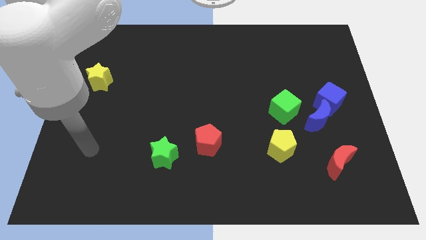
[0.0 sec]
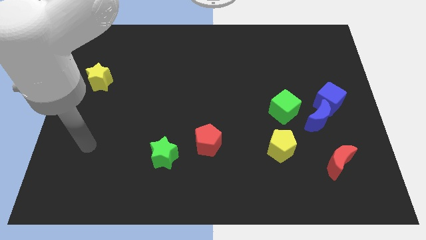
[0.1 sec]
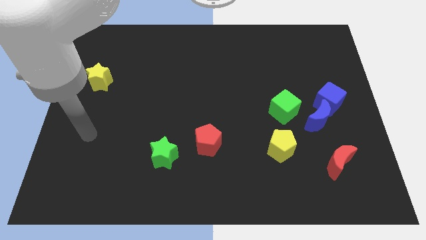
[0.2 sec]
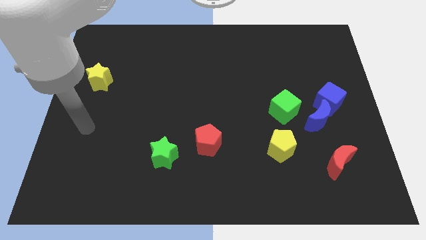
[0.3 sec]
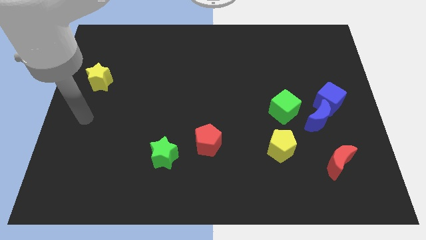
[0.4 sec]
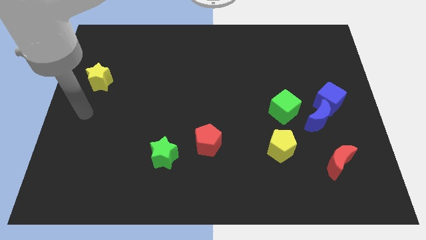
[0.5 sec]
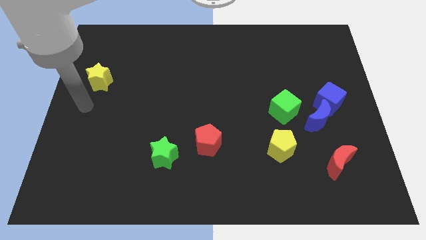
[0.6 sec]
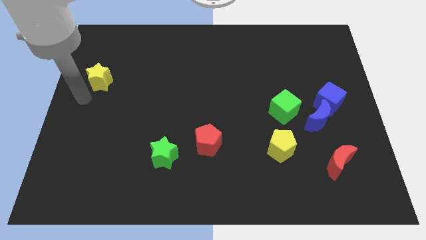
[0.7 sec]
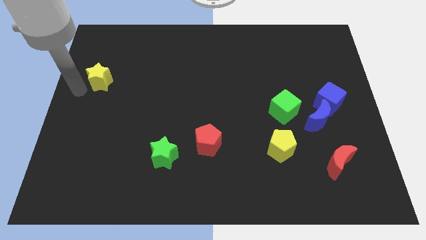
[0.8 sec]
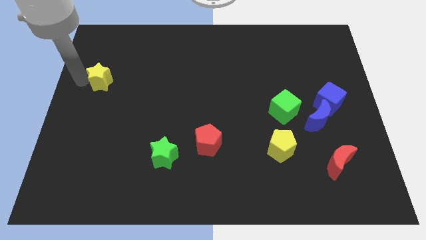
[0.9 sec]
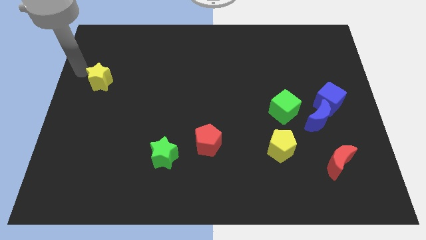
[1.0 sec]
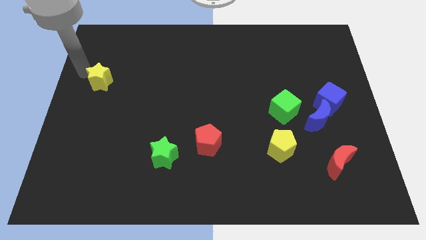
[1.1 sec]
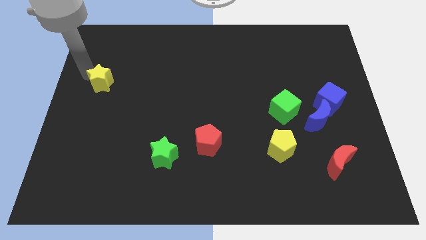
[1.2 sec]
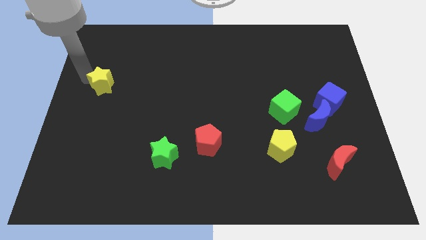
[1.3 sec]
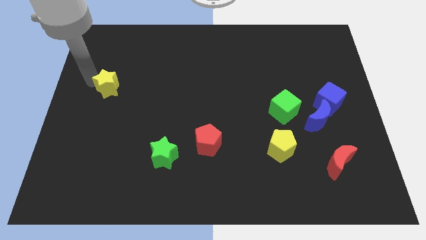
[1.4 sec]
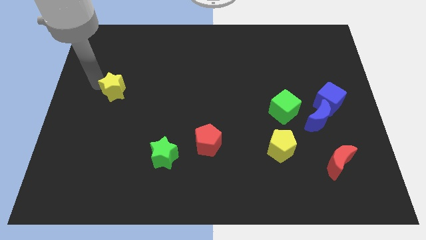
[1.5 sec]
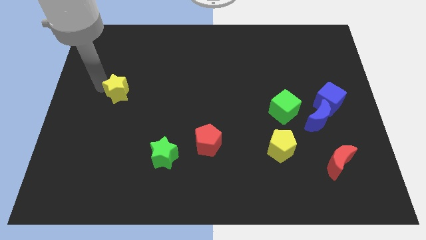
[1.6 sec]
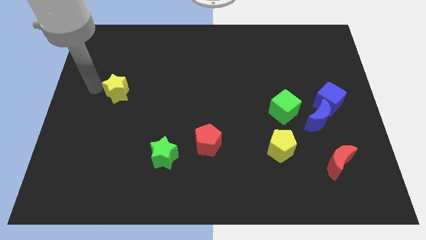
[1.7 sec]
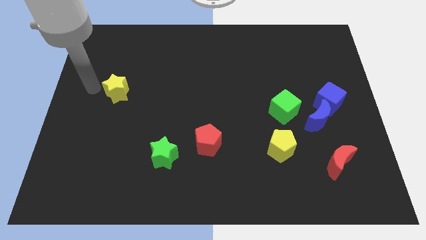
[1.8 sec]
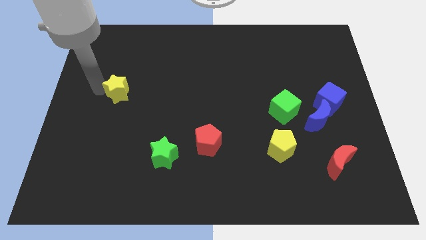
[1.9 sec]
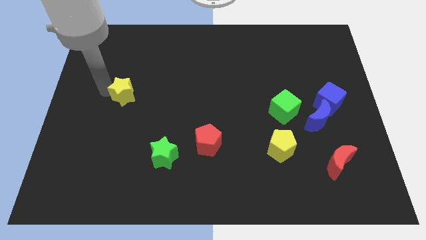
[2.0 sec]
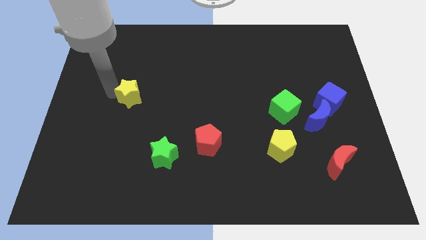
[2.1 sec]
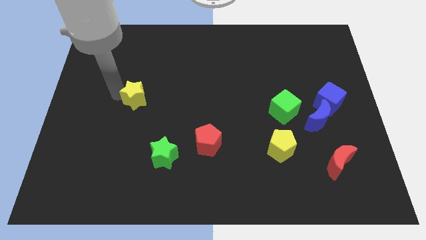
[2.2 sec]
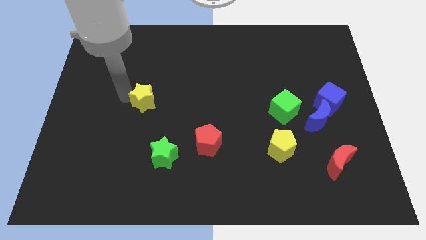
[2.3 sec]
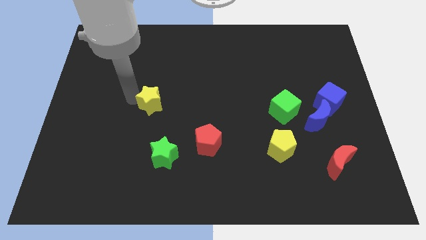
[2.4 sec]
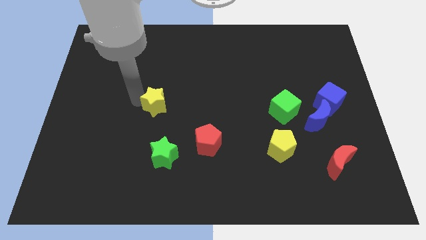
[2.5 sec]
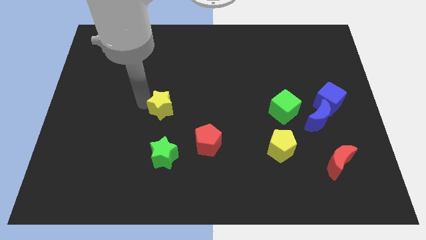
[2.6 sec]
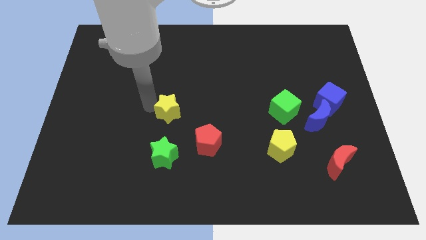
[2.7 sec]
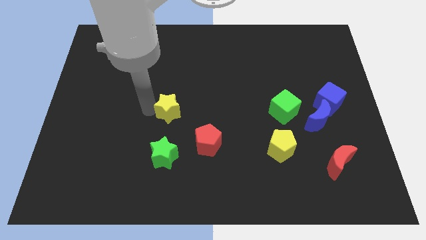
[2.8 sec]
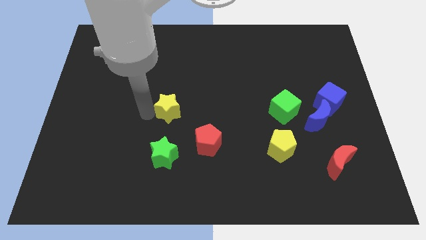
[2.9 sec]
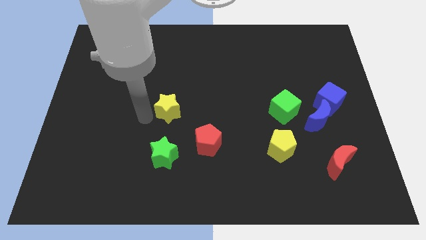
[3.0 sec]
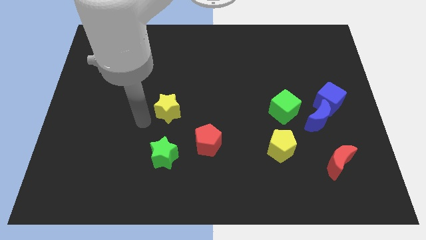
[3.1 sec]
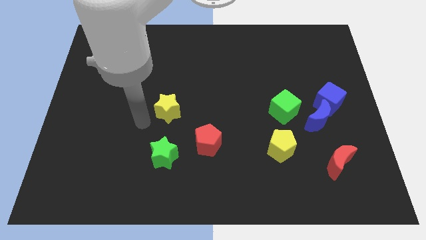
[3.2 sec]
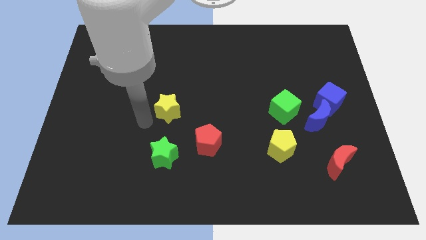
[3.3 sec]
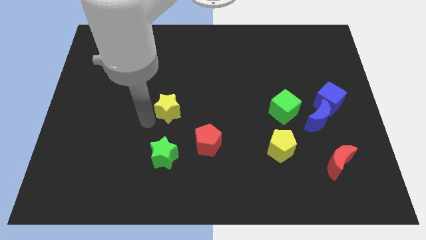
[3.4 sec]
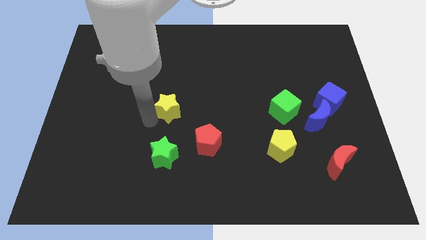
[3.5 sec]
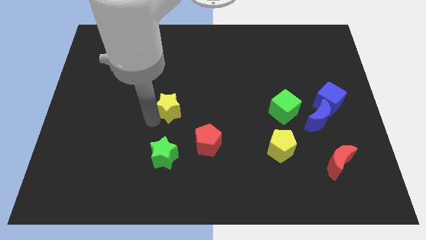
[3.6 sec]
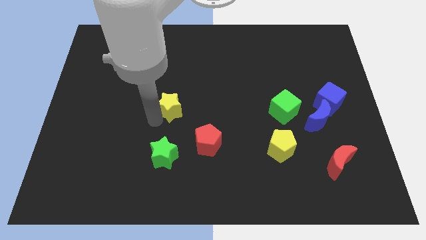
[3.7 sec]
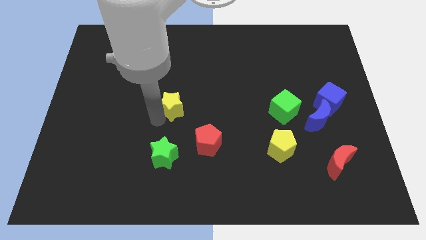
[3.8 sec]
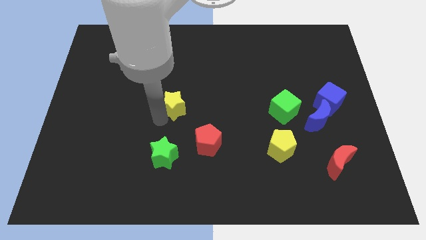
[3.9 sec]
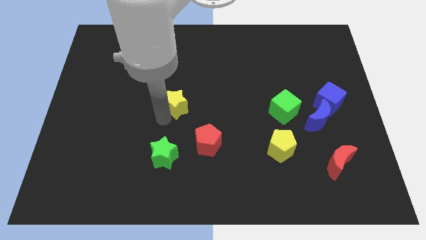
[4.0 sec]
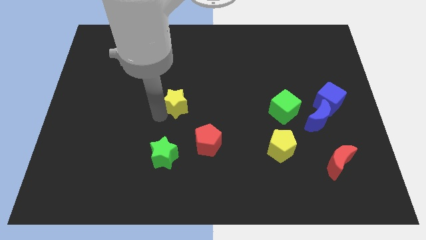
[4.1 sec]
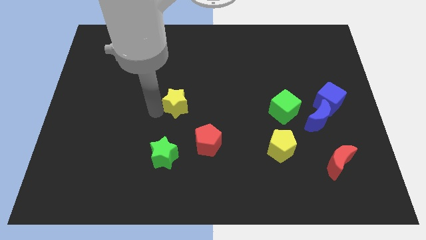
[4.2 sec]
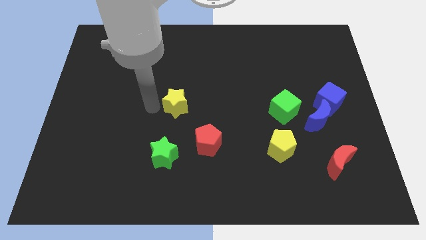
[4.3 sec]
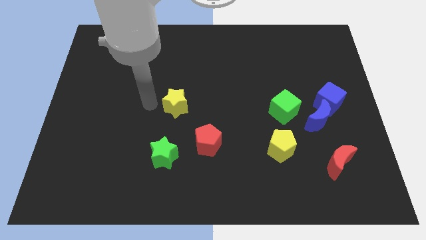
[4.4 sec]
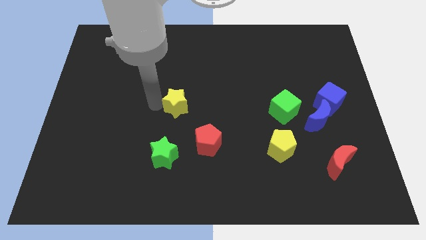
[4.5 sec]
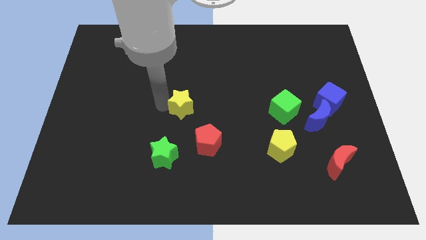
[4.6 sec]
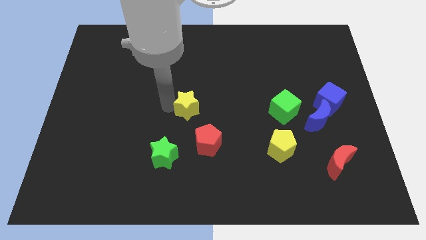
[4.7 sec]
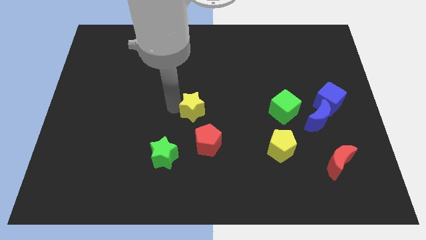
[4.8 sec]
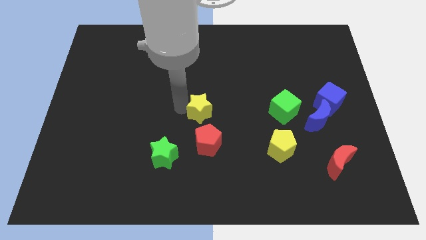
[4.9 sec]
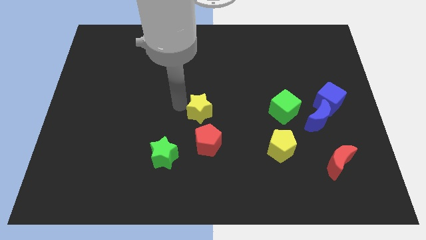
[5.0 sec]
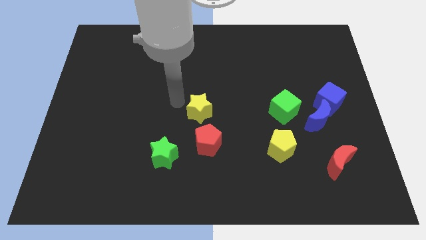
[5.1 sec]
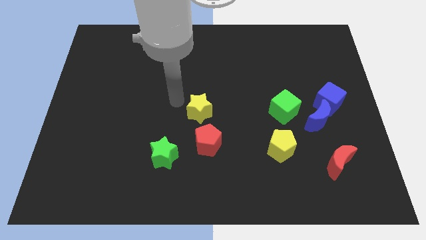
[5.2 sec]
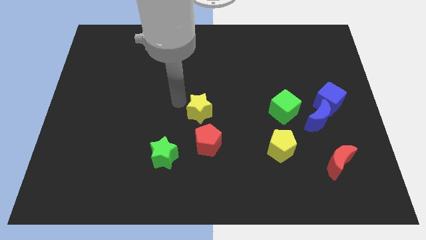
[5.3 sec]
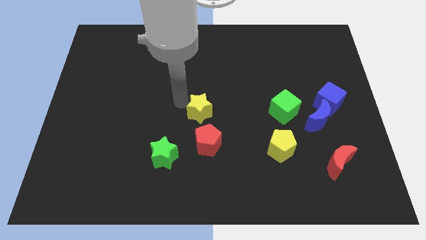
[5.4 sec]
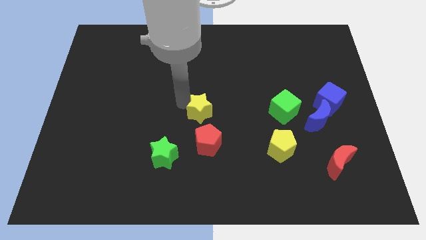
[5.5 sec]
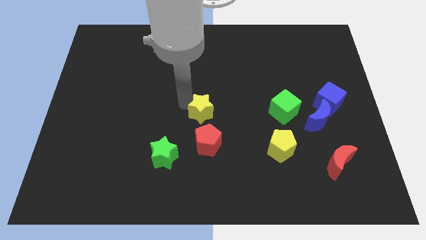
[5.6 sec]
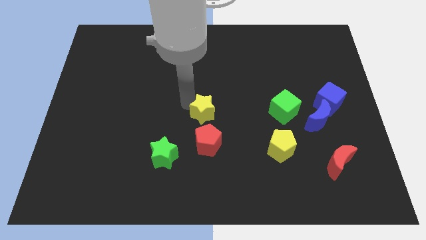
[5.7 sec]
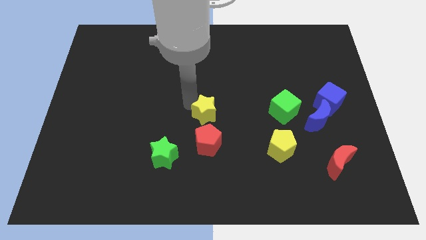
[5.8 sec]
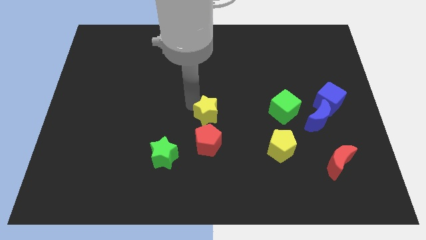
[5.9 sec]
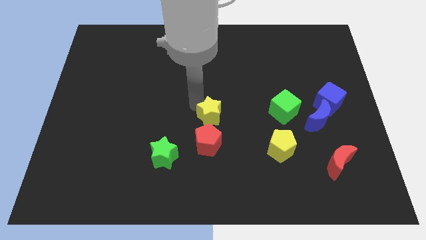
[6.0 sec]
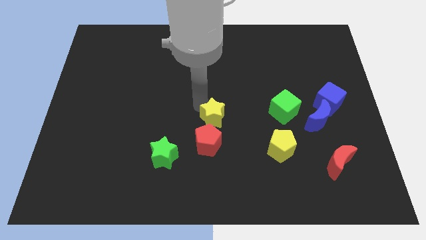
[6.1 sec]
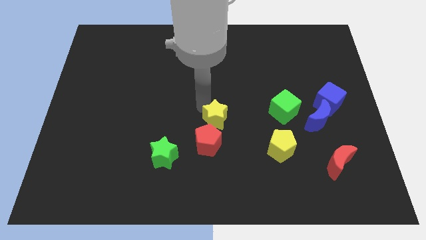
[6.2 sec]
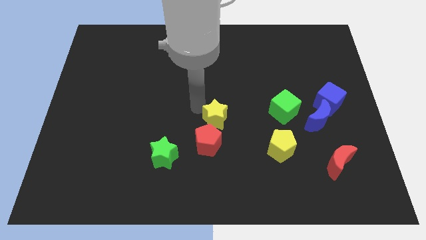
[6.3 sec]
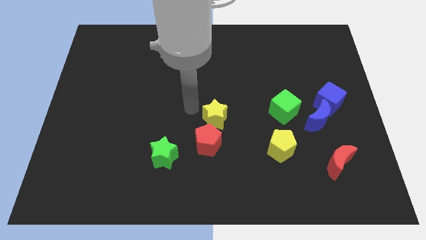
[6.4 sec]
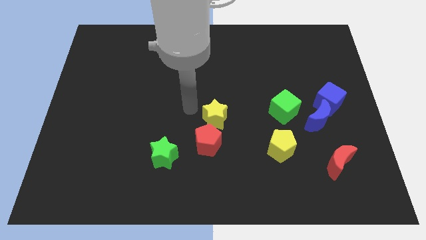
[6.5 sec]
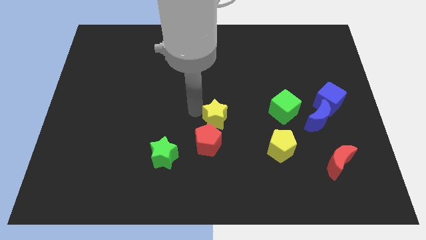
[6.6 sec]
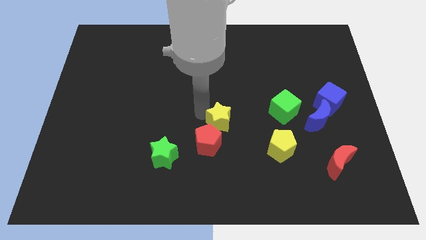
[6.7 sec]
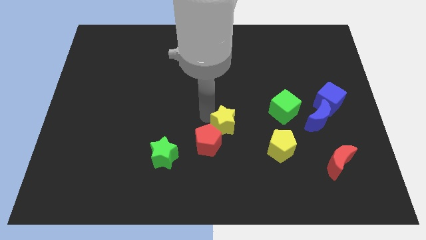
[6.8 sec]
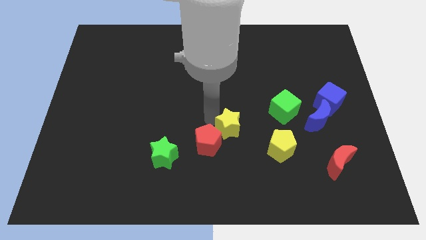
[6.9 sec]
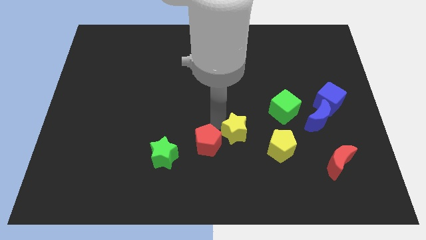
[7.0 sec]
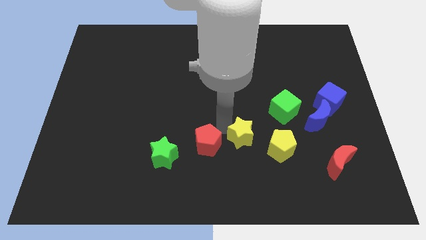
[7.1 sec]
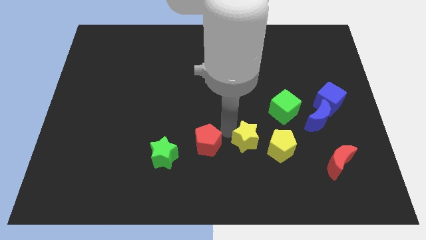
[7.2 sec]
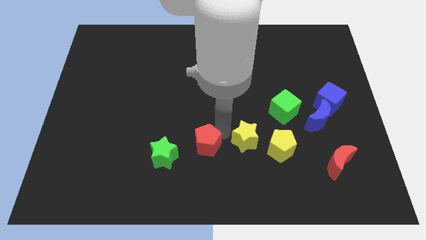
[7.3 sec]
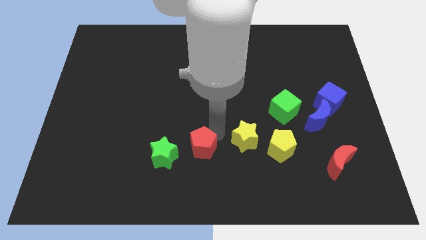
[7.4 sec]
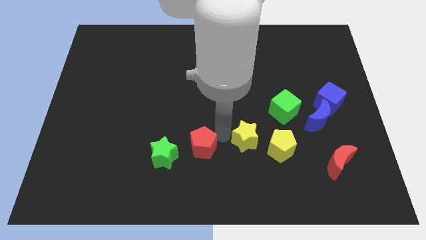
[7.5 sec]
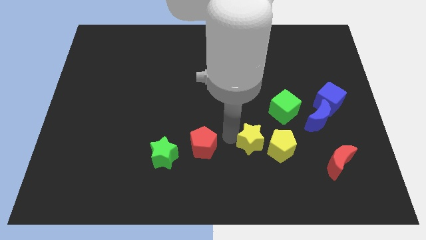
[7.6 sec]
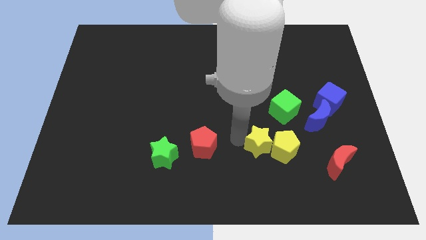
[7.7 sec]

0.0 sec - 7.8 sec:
push the yellow star towards the yellow pentagon
